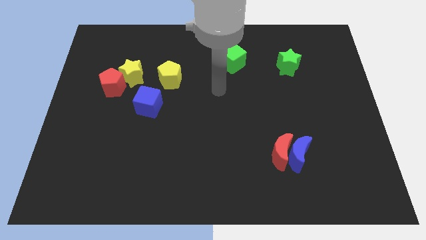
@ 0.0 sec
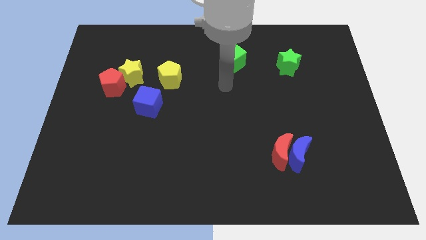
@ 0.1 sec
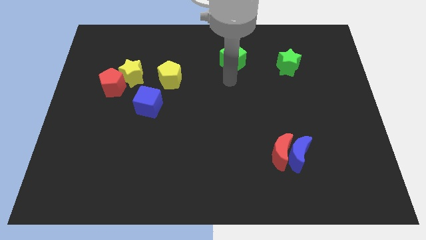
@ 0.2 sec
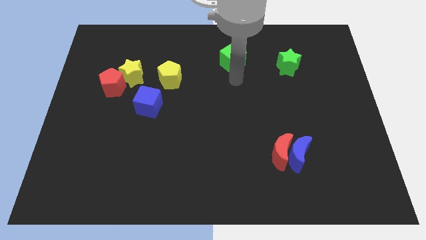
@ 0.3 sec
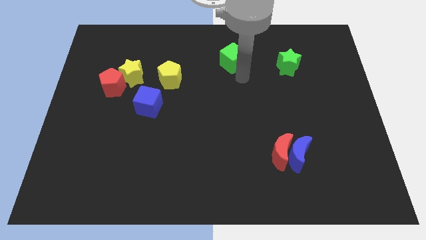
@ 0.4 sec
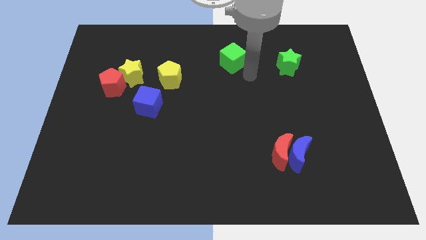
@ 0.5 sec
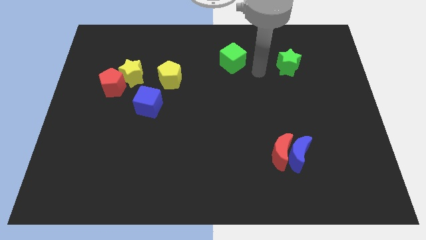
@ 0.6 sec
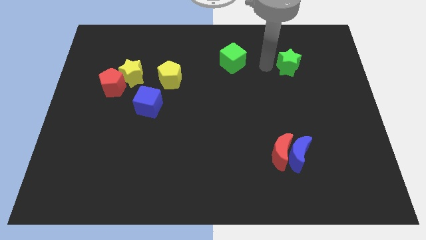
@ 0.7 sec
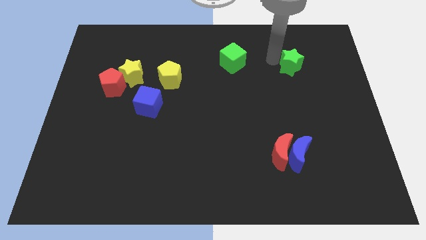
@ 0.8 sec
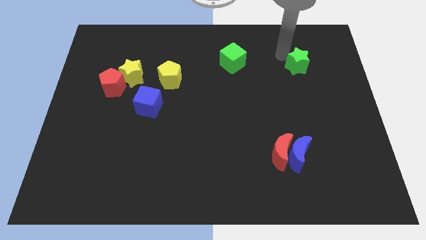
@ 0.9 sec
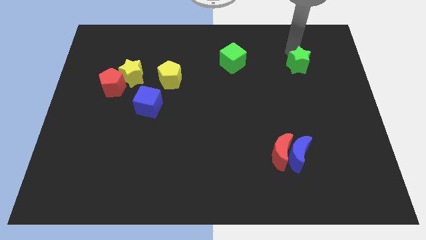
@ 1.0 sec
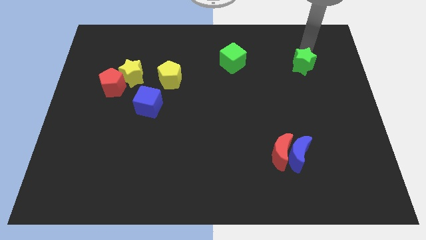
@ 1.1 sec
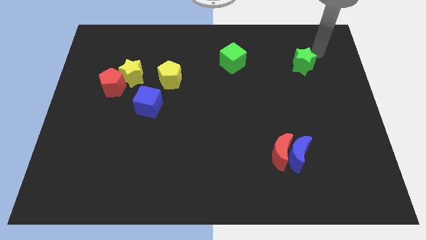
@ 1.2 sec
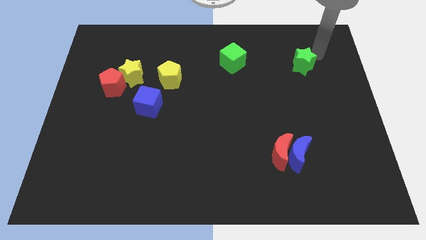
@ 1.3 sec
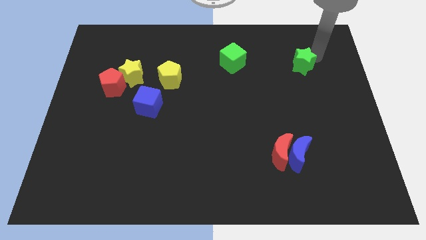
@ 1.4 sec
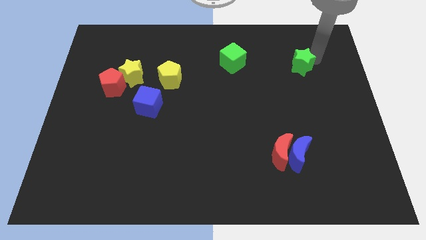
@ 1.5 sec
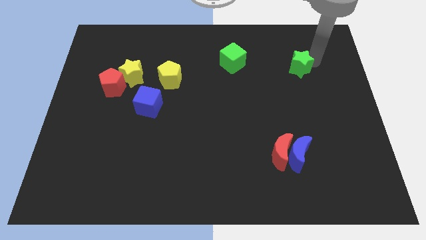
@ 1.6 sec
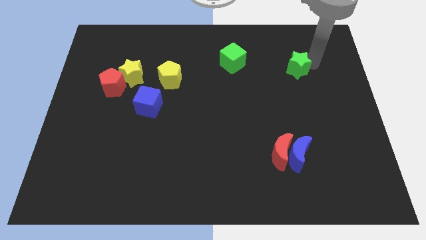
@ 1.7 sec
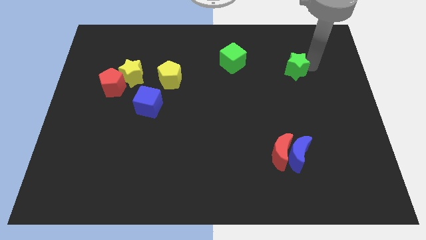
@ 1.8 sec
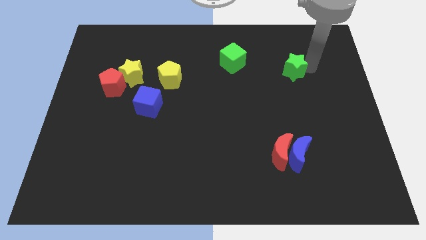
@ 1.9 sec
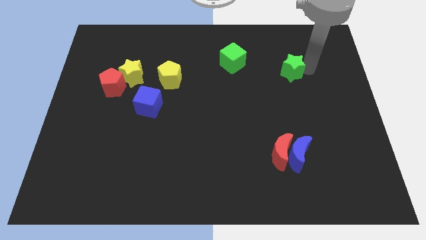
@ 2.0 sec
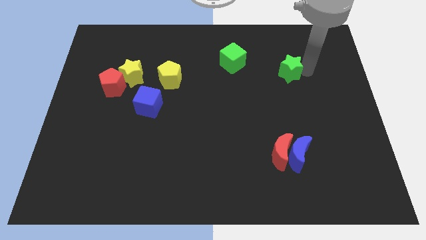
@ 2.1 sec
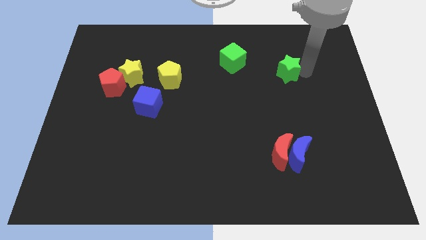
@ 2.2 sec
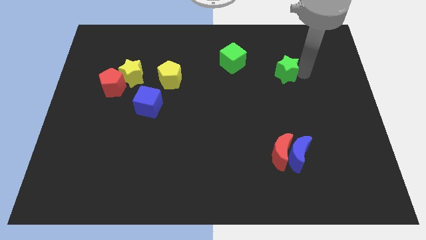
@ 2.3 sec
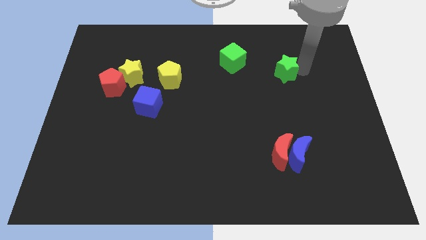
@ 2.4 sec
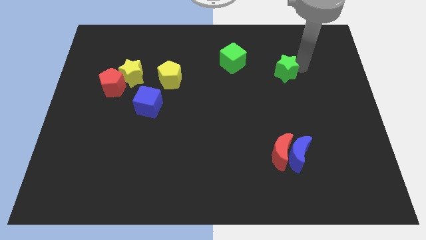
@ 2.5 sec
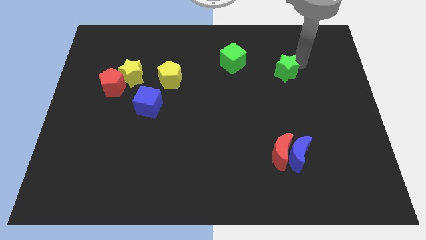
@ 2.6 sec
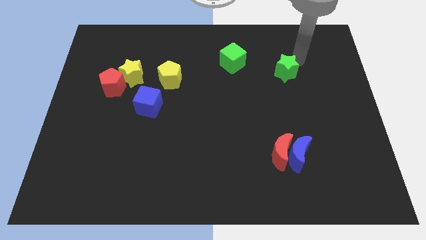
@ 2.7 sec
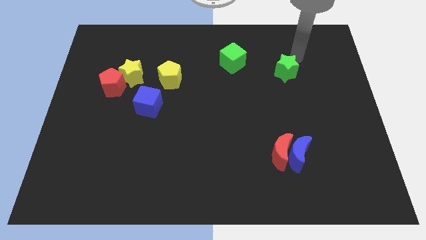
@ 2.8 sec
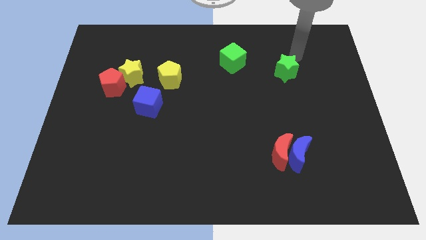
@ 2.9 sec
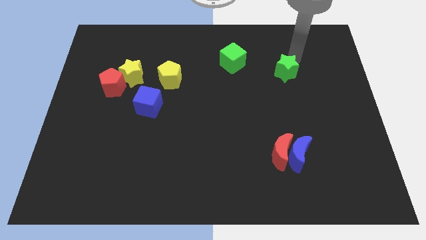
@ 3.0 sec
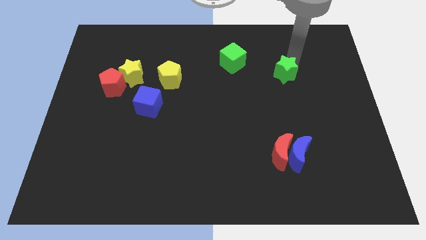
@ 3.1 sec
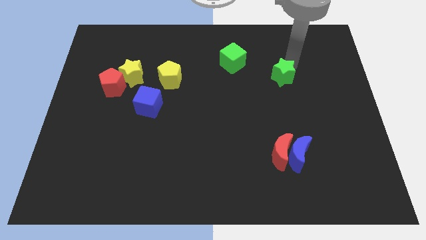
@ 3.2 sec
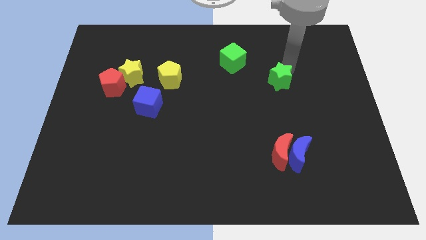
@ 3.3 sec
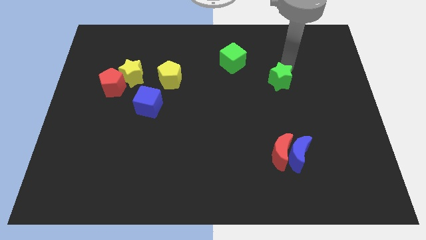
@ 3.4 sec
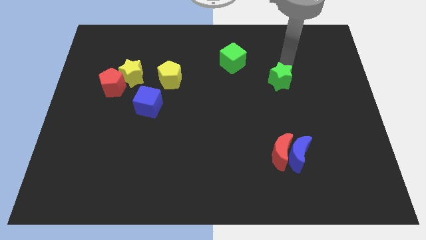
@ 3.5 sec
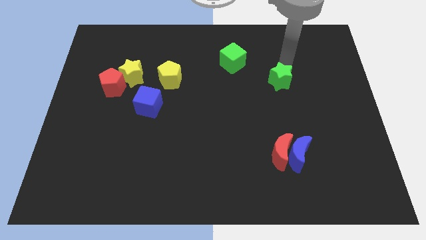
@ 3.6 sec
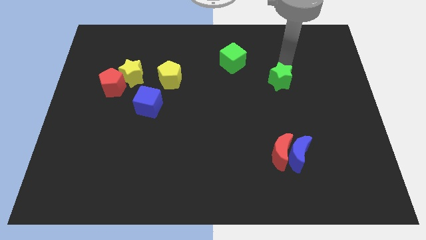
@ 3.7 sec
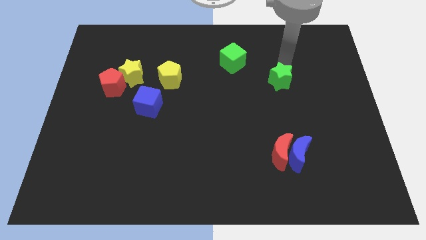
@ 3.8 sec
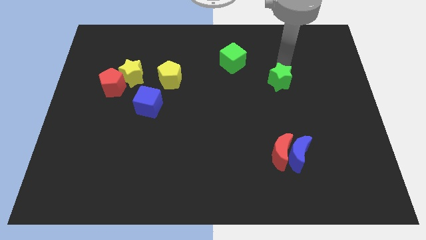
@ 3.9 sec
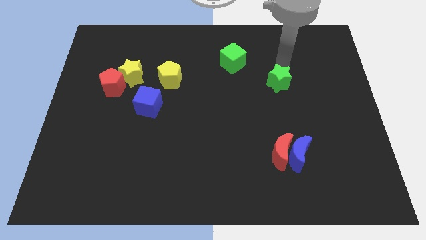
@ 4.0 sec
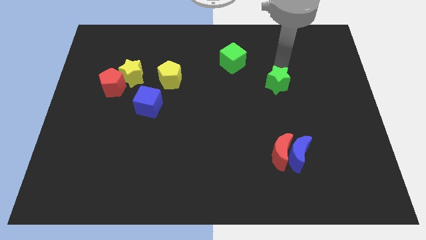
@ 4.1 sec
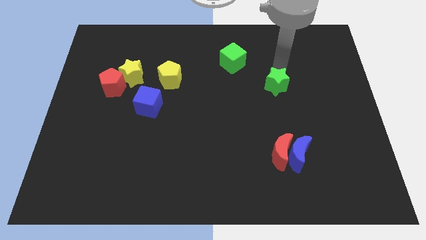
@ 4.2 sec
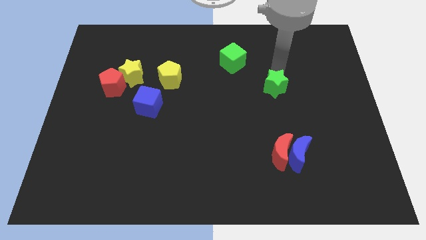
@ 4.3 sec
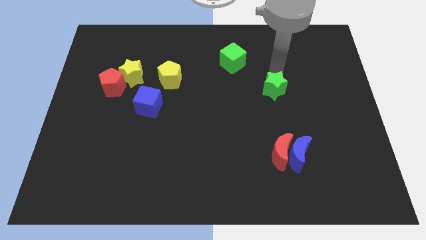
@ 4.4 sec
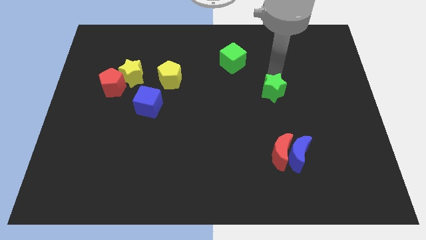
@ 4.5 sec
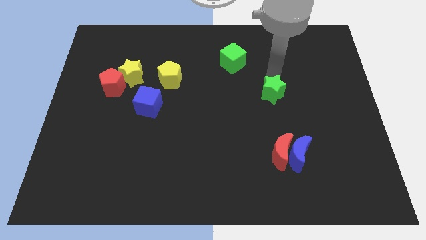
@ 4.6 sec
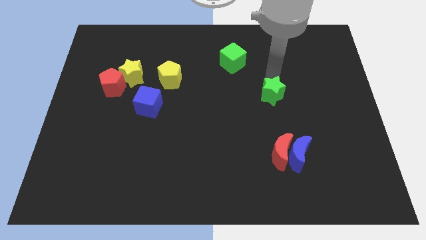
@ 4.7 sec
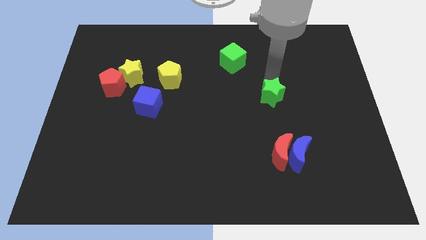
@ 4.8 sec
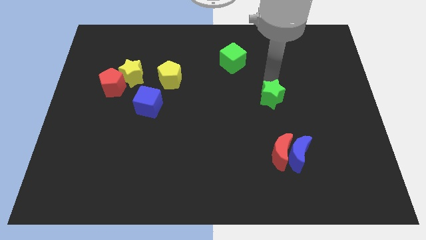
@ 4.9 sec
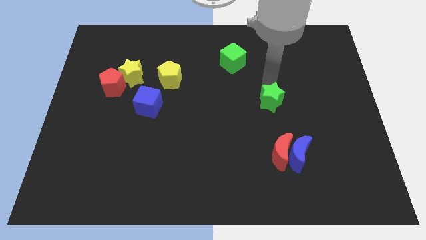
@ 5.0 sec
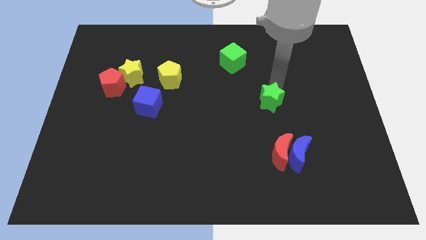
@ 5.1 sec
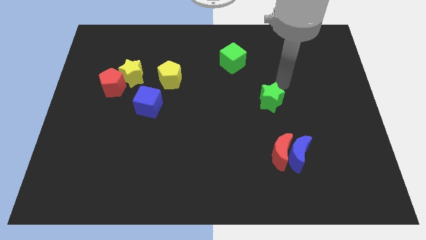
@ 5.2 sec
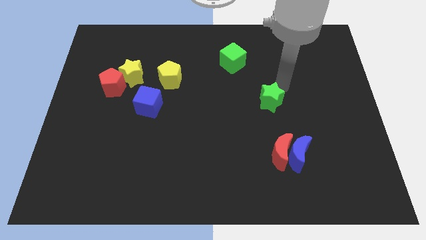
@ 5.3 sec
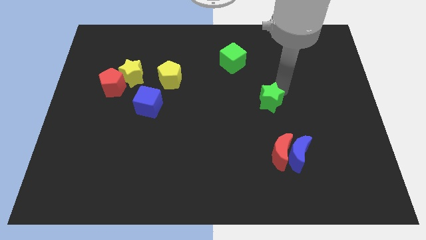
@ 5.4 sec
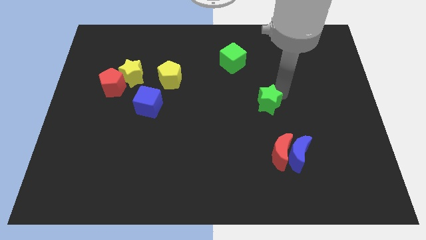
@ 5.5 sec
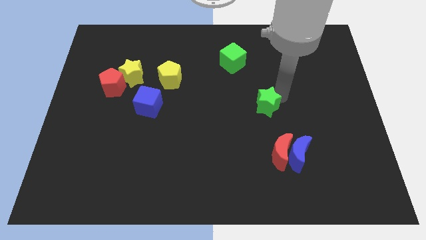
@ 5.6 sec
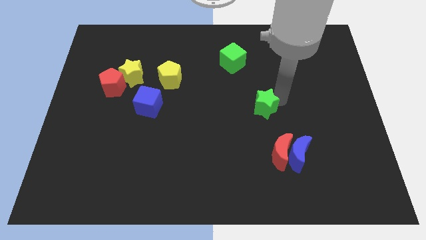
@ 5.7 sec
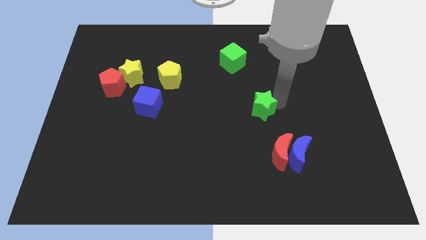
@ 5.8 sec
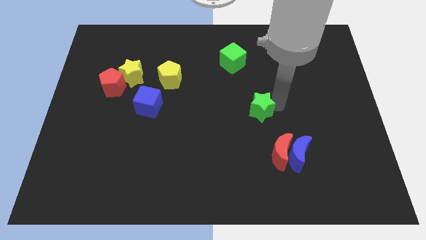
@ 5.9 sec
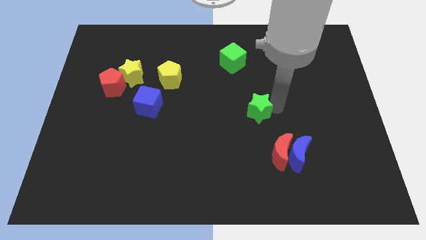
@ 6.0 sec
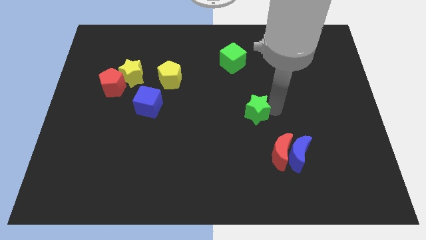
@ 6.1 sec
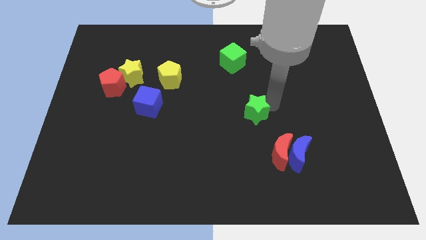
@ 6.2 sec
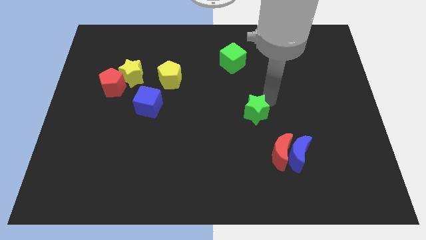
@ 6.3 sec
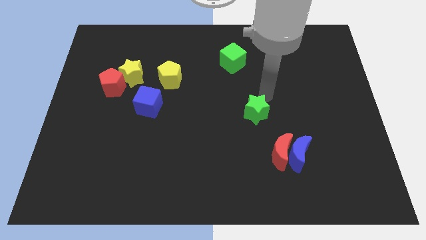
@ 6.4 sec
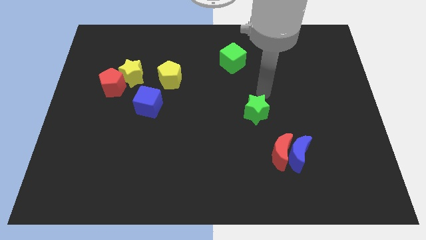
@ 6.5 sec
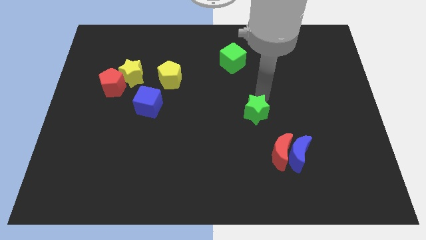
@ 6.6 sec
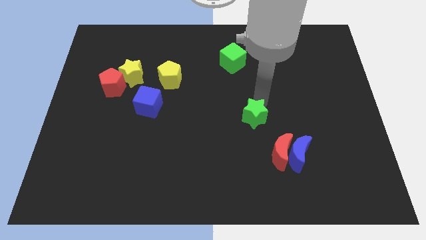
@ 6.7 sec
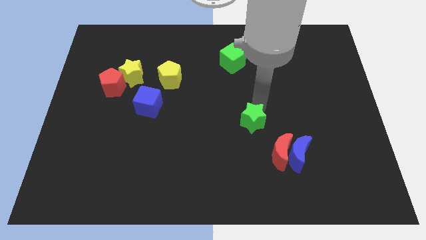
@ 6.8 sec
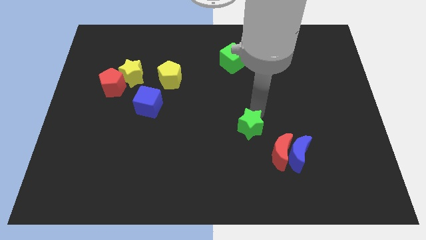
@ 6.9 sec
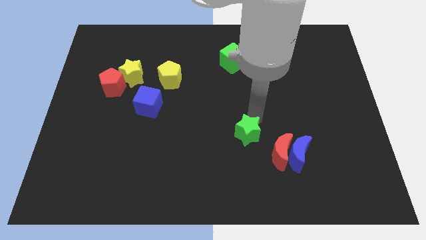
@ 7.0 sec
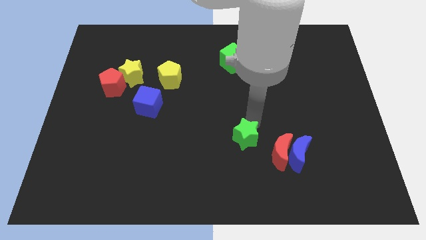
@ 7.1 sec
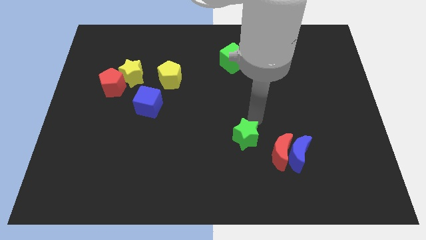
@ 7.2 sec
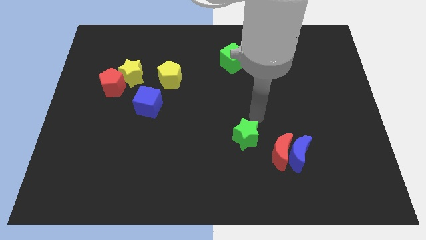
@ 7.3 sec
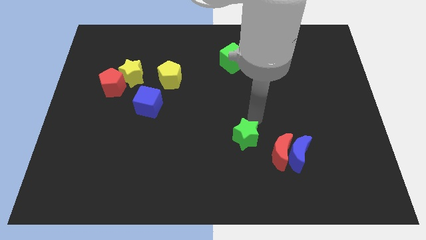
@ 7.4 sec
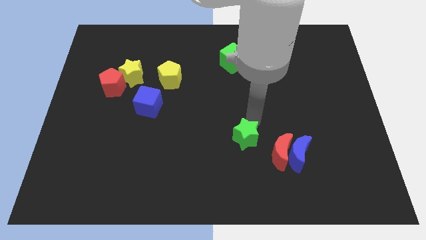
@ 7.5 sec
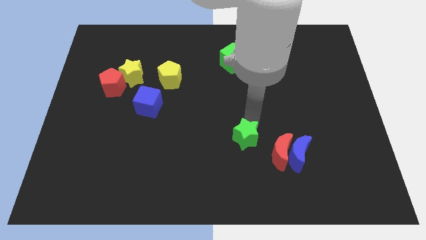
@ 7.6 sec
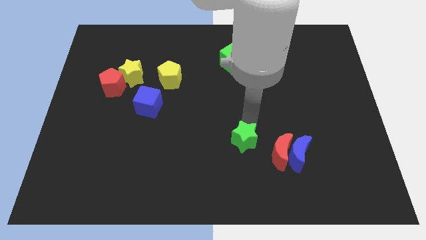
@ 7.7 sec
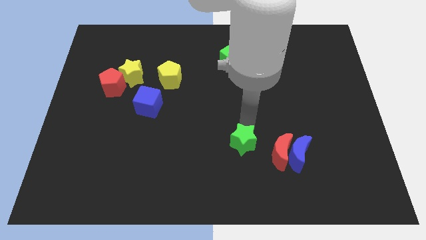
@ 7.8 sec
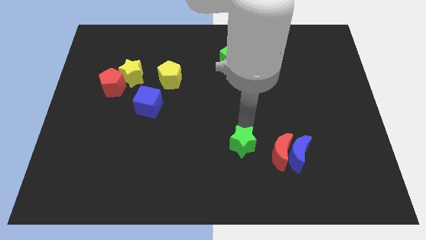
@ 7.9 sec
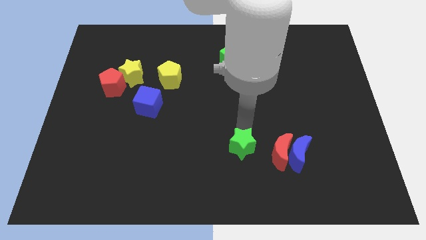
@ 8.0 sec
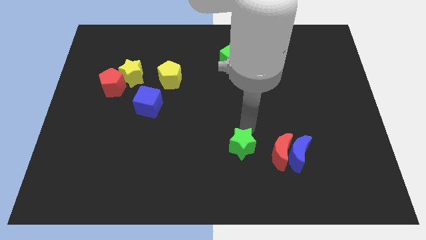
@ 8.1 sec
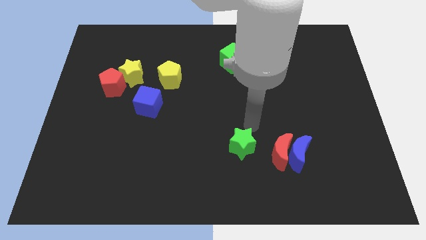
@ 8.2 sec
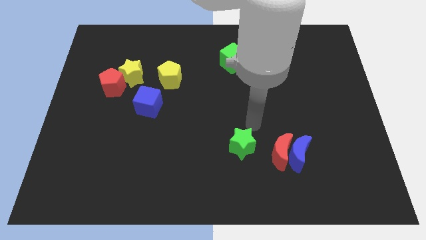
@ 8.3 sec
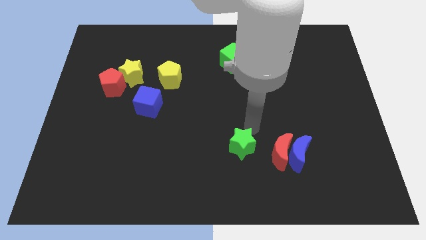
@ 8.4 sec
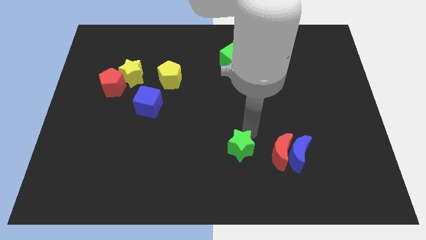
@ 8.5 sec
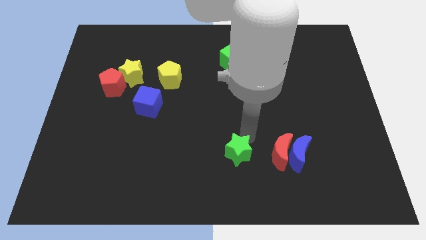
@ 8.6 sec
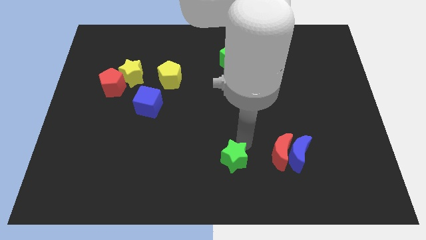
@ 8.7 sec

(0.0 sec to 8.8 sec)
move the green star to the bottom
